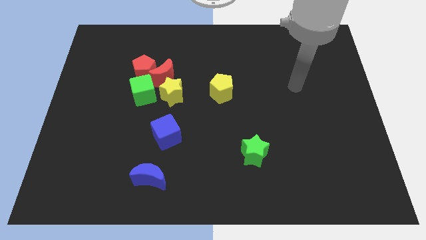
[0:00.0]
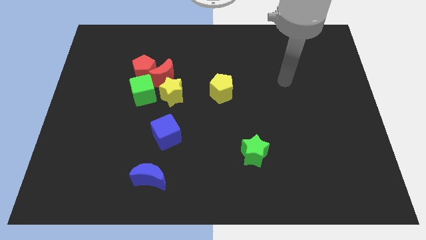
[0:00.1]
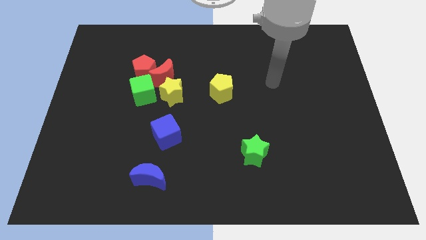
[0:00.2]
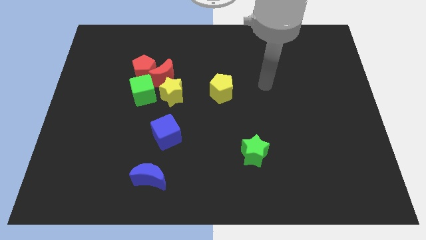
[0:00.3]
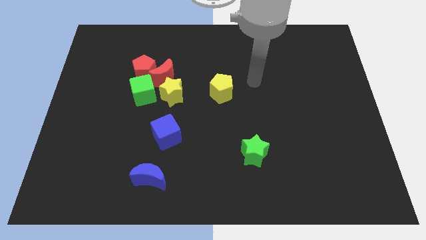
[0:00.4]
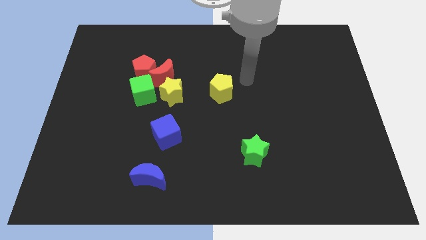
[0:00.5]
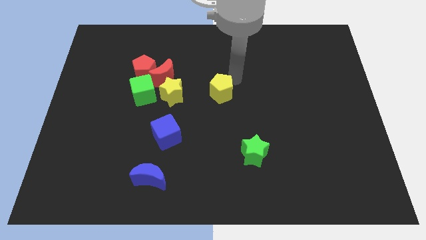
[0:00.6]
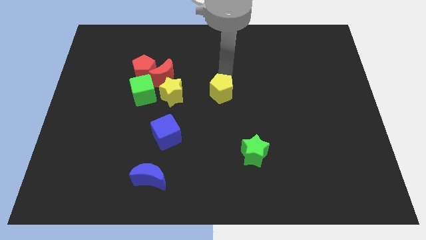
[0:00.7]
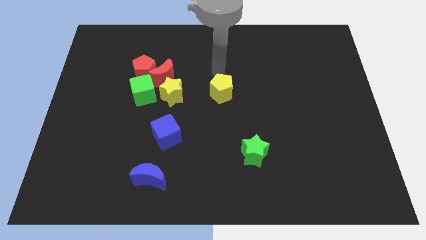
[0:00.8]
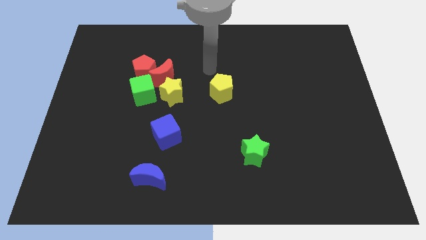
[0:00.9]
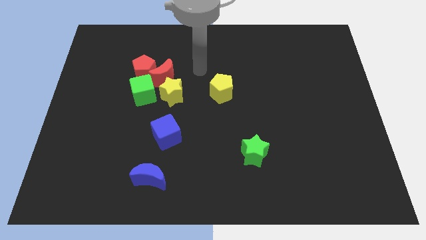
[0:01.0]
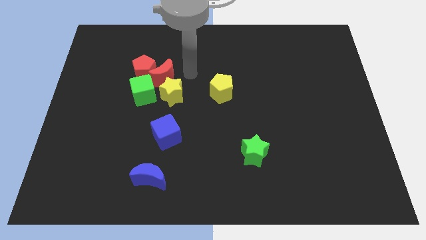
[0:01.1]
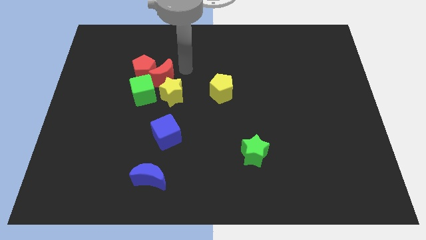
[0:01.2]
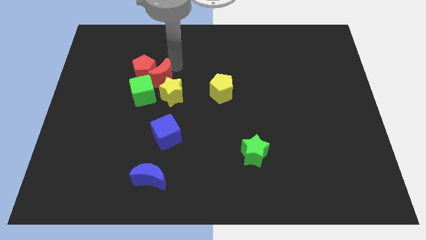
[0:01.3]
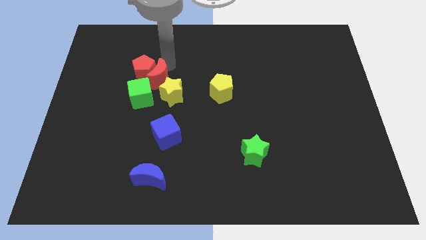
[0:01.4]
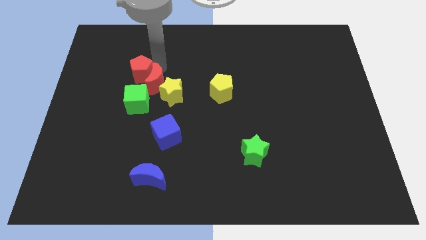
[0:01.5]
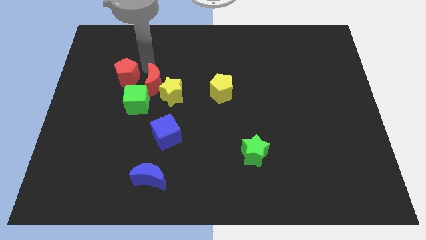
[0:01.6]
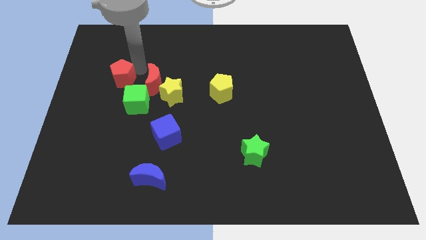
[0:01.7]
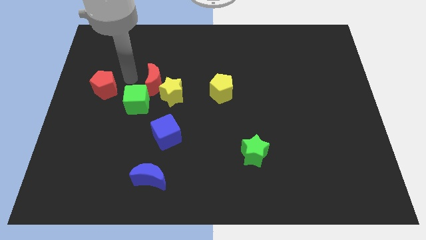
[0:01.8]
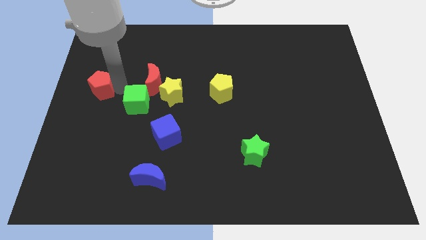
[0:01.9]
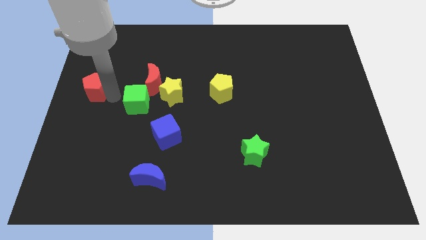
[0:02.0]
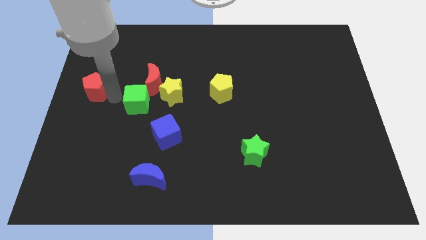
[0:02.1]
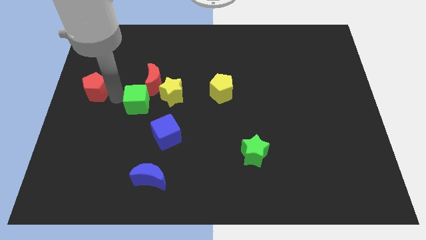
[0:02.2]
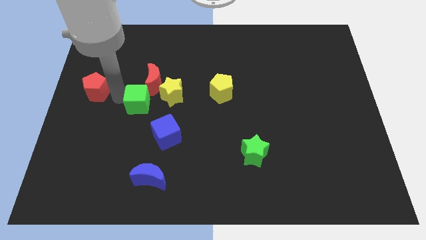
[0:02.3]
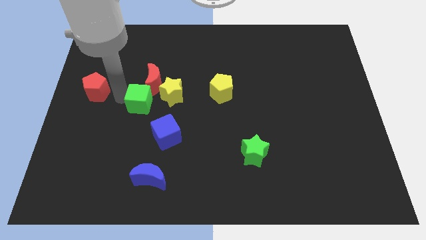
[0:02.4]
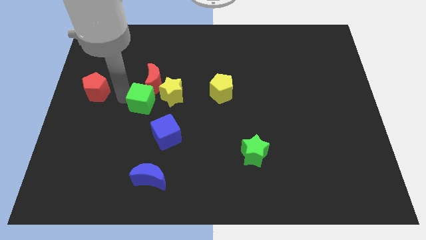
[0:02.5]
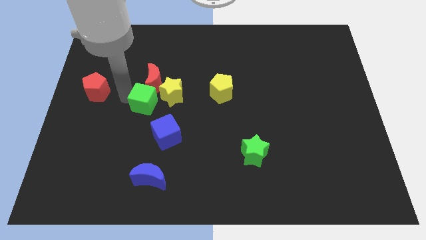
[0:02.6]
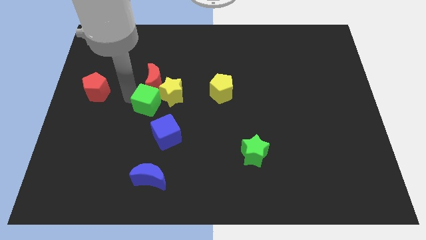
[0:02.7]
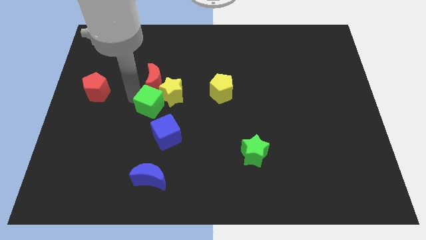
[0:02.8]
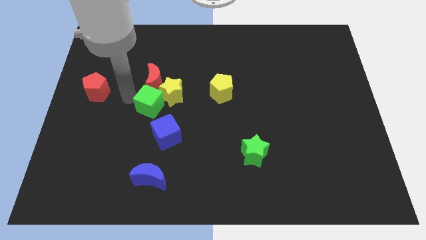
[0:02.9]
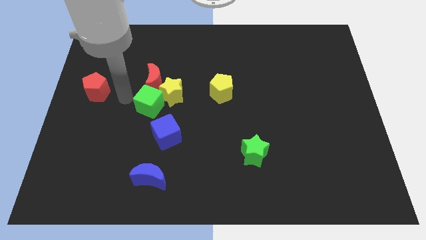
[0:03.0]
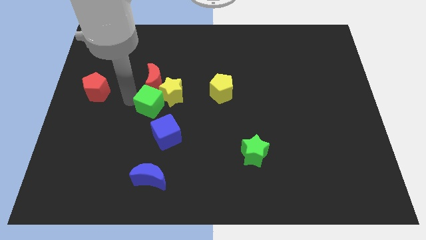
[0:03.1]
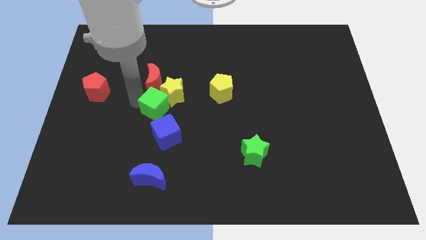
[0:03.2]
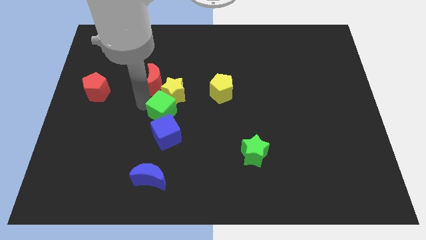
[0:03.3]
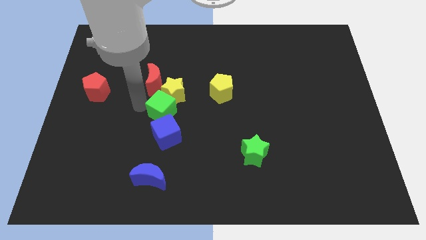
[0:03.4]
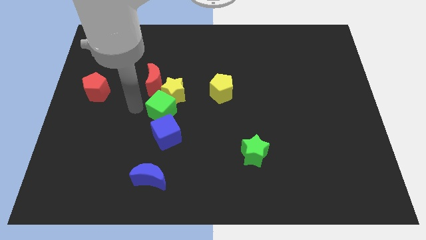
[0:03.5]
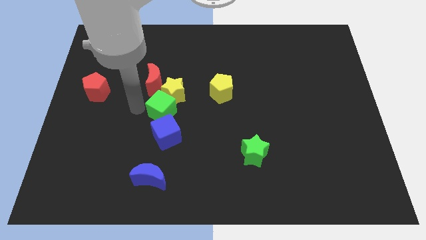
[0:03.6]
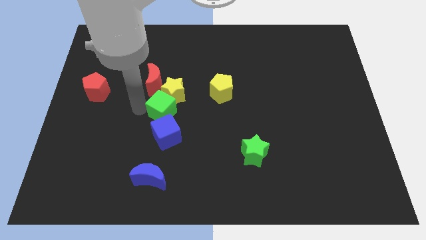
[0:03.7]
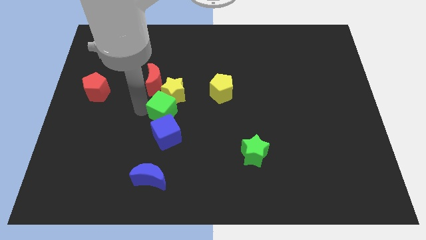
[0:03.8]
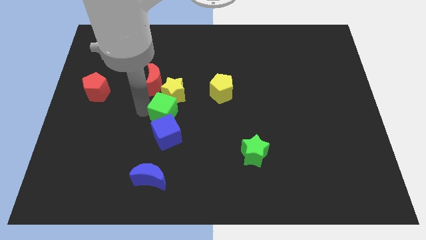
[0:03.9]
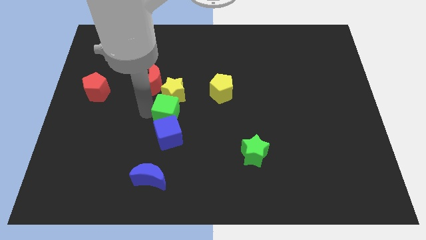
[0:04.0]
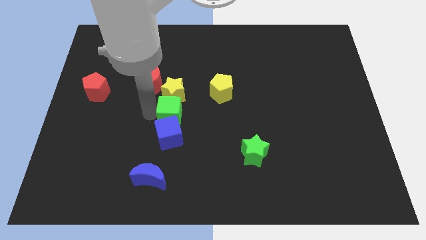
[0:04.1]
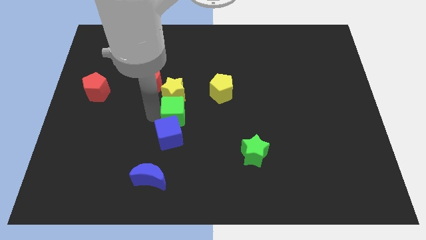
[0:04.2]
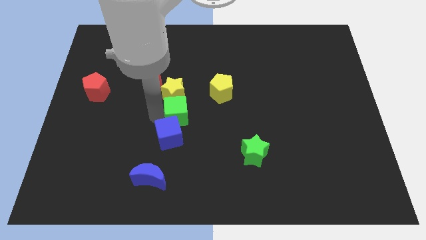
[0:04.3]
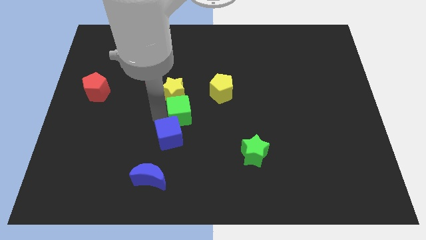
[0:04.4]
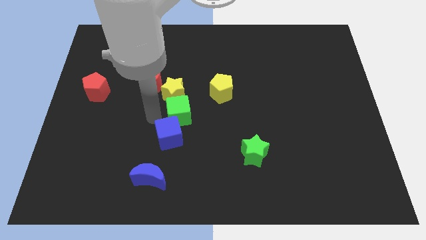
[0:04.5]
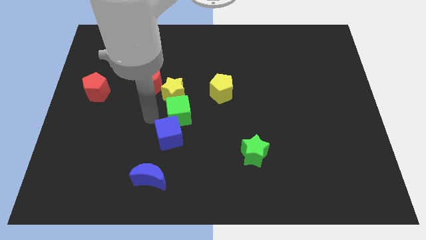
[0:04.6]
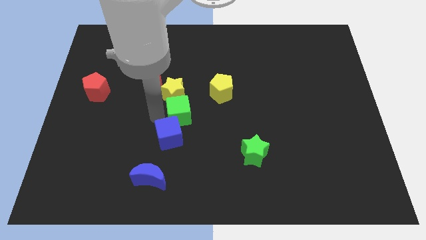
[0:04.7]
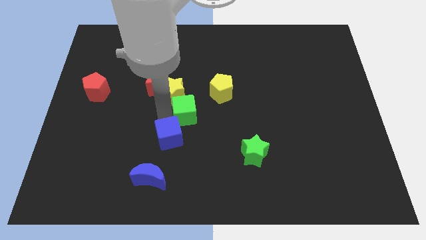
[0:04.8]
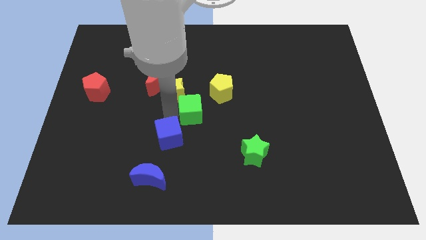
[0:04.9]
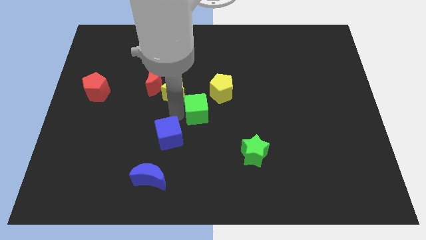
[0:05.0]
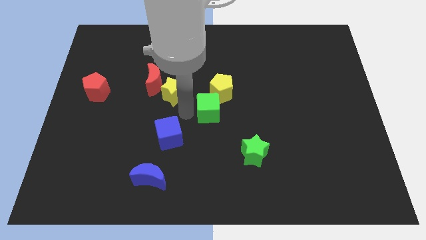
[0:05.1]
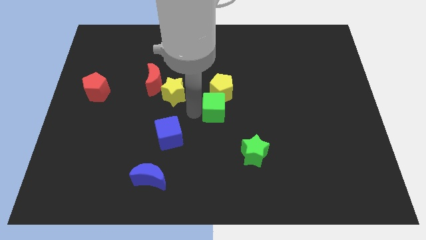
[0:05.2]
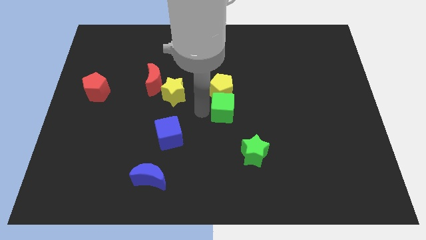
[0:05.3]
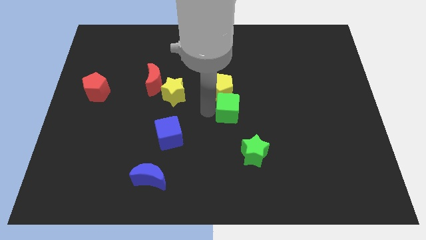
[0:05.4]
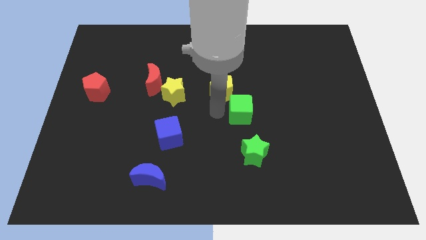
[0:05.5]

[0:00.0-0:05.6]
slide the green cube to the right

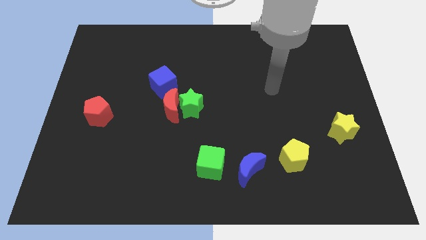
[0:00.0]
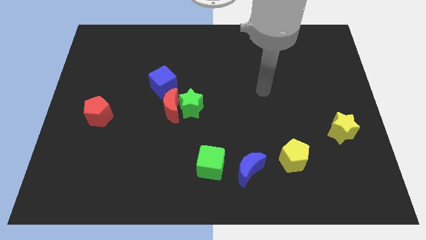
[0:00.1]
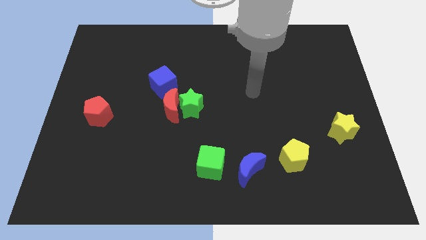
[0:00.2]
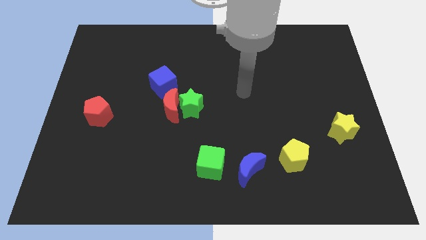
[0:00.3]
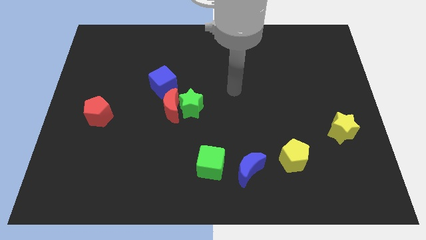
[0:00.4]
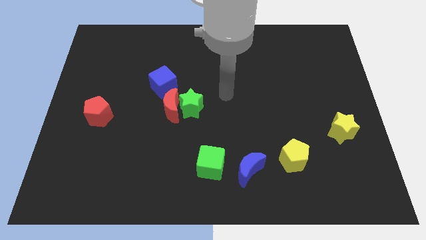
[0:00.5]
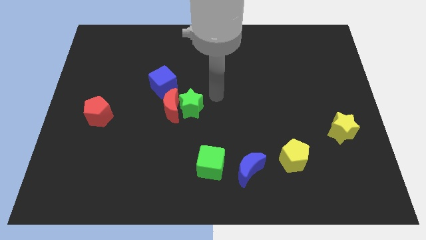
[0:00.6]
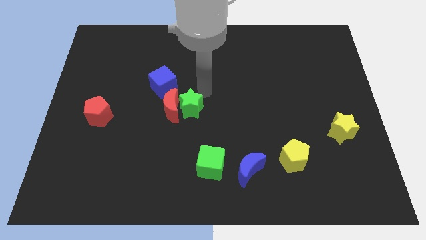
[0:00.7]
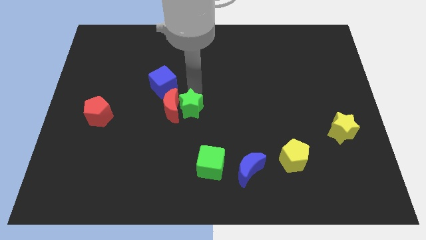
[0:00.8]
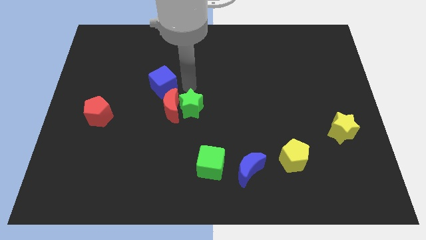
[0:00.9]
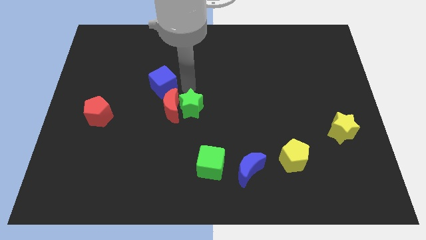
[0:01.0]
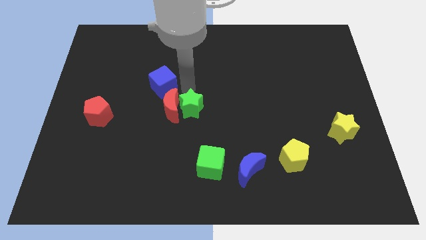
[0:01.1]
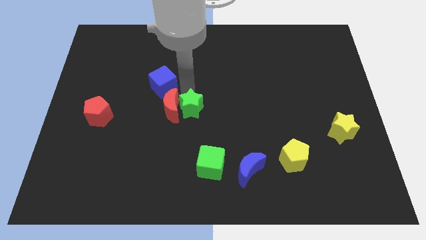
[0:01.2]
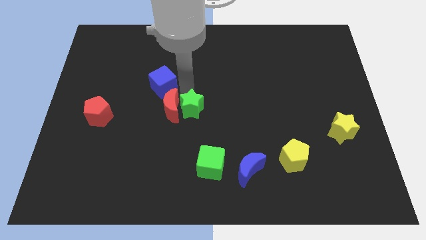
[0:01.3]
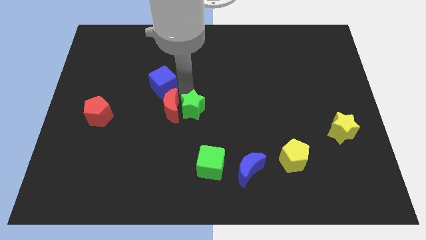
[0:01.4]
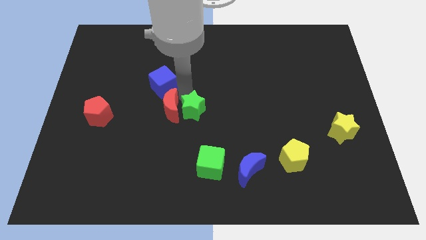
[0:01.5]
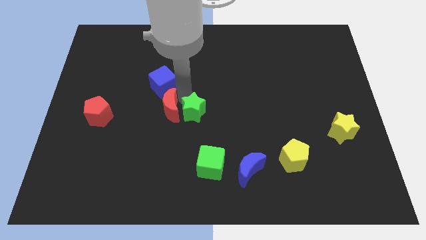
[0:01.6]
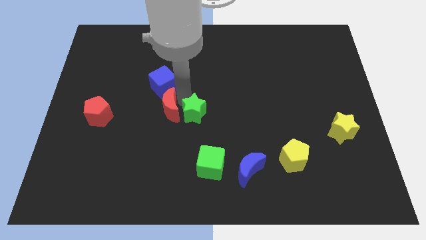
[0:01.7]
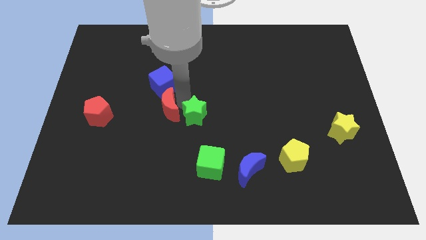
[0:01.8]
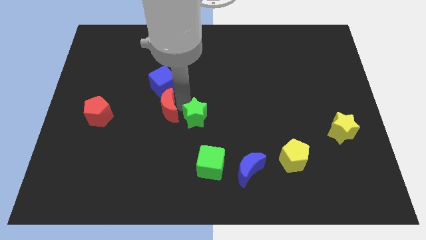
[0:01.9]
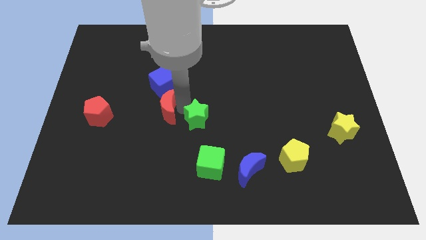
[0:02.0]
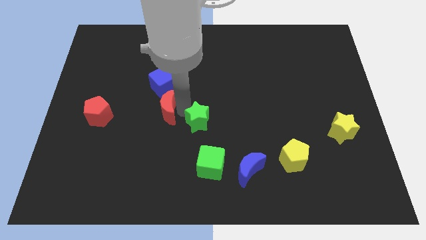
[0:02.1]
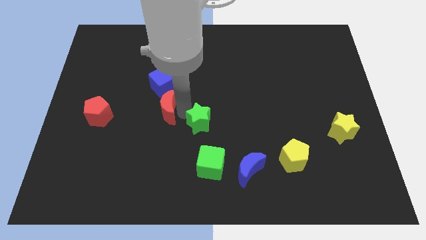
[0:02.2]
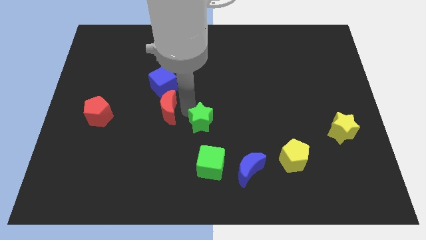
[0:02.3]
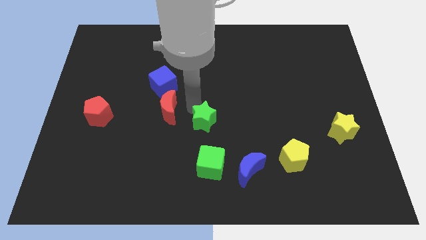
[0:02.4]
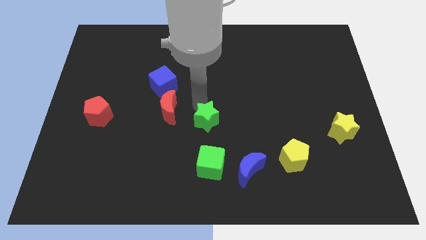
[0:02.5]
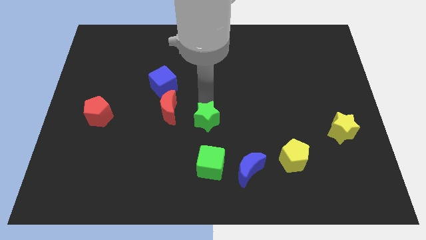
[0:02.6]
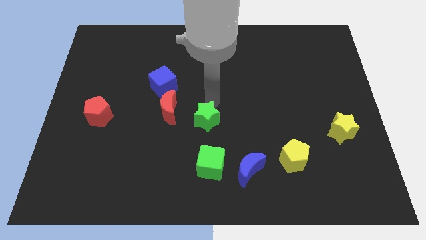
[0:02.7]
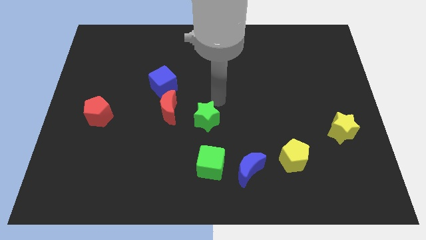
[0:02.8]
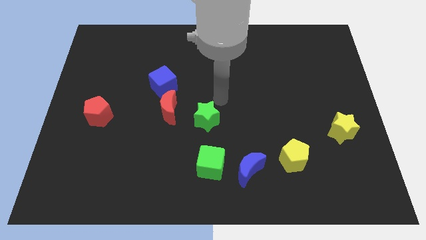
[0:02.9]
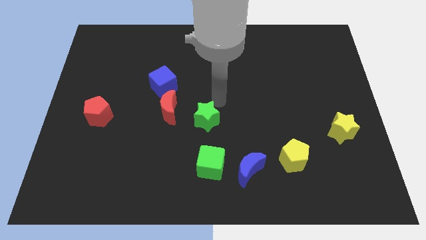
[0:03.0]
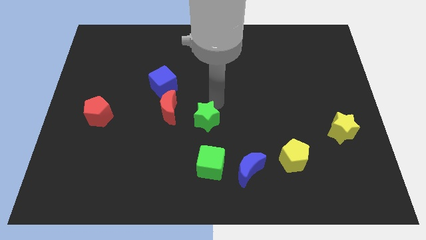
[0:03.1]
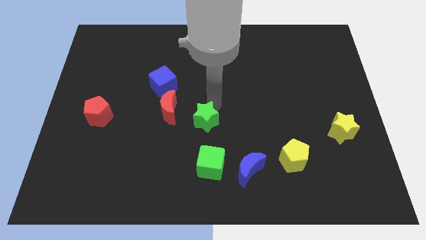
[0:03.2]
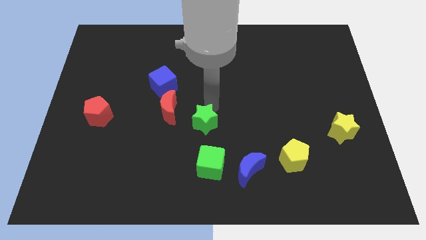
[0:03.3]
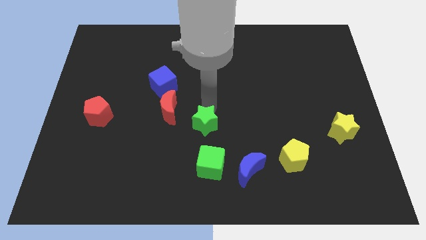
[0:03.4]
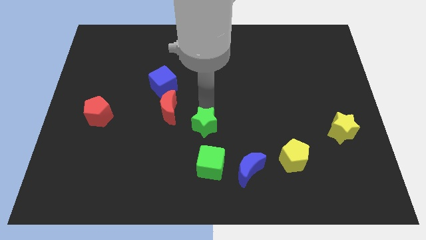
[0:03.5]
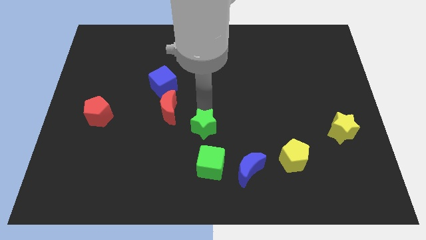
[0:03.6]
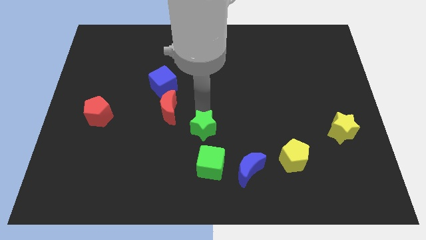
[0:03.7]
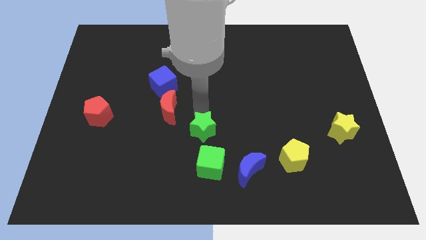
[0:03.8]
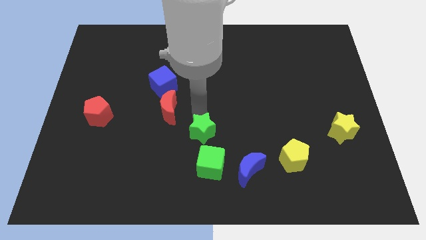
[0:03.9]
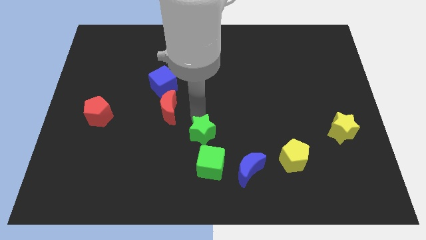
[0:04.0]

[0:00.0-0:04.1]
move the green star downwards a little bit
